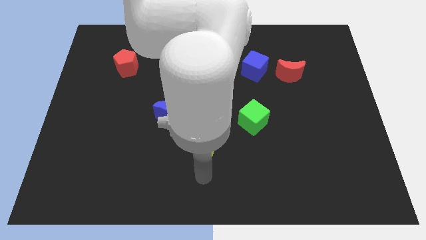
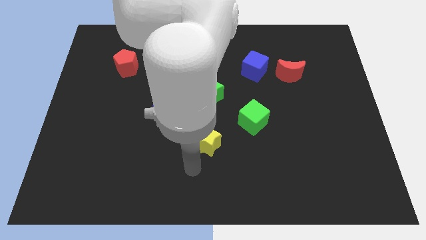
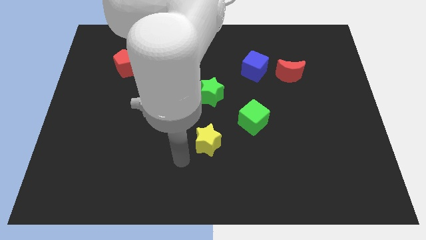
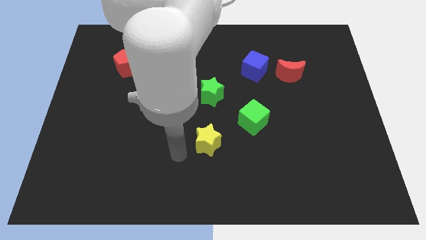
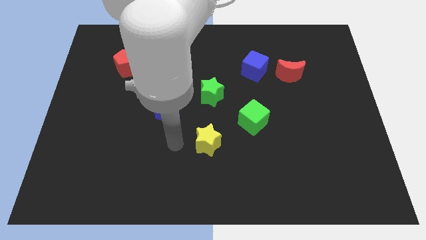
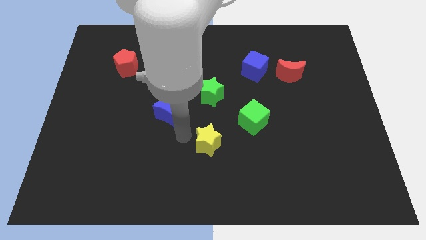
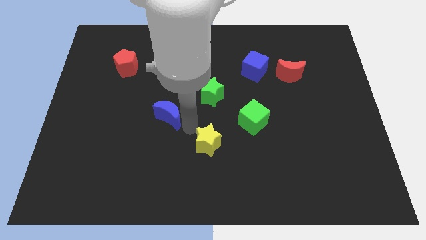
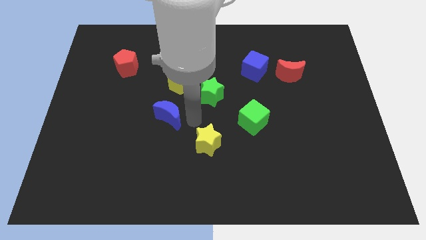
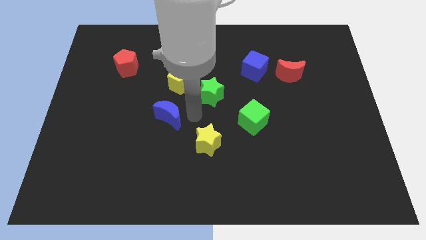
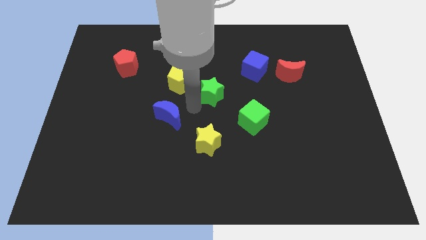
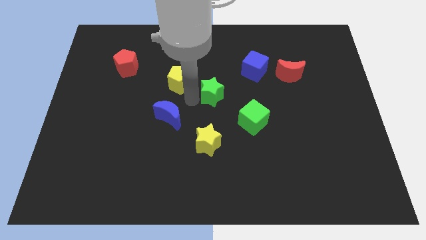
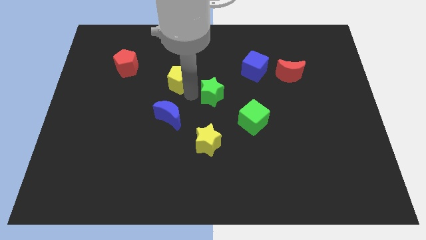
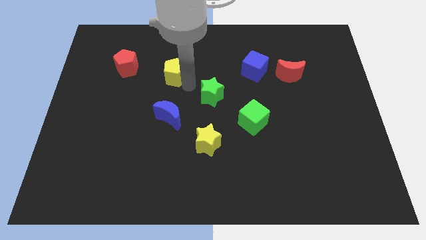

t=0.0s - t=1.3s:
separate the green star from the yellow pentagon

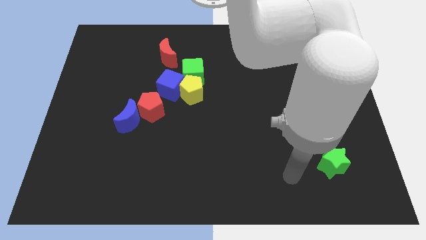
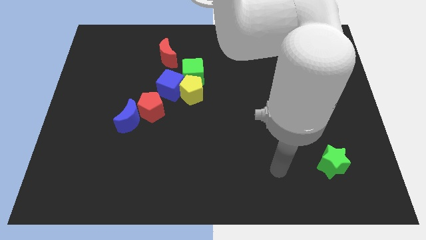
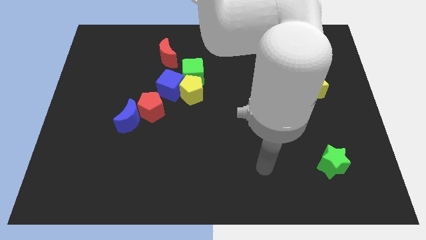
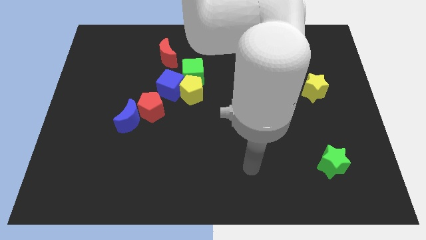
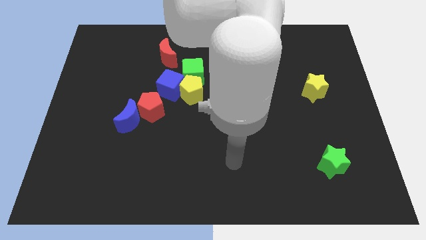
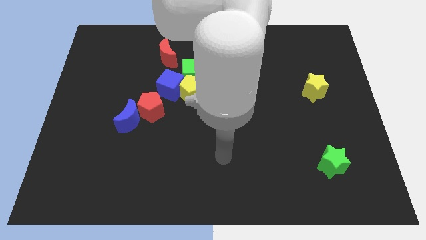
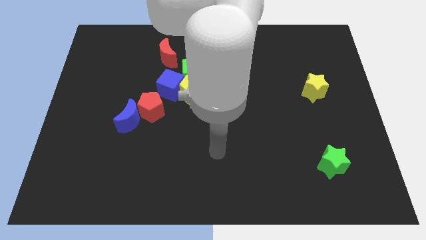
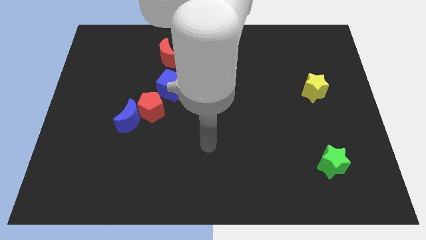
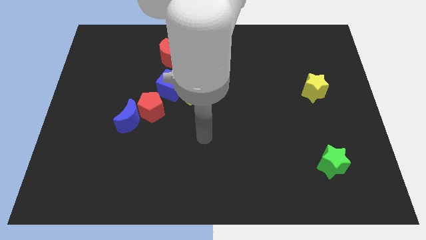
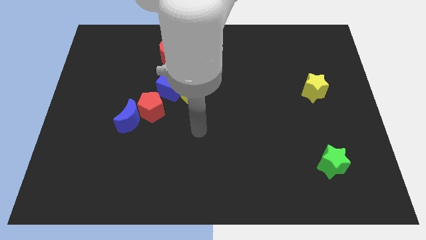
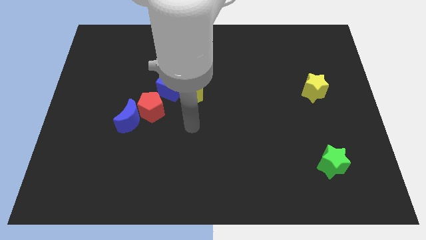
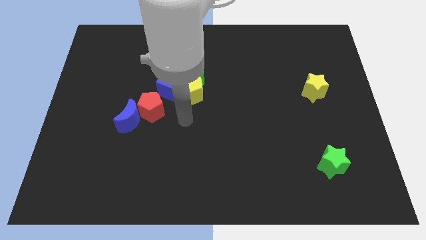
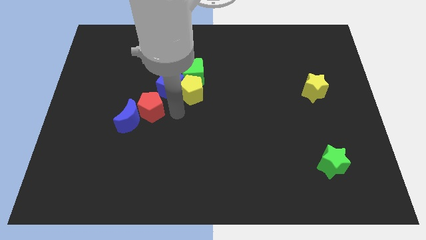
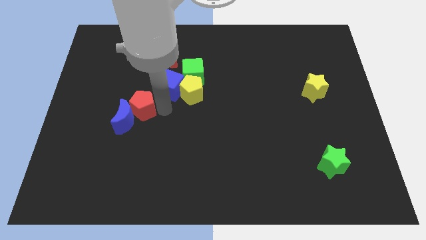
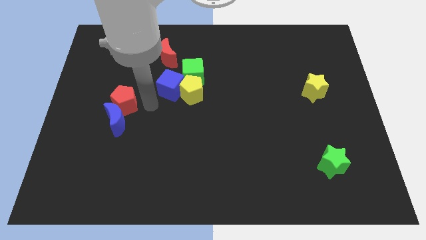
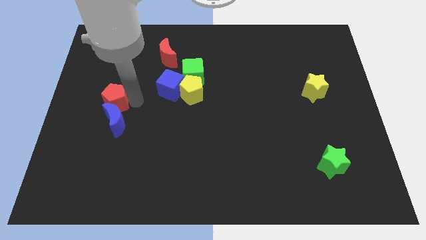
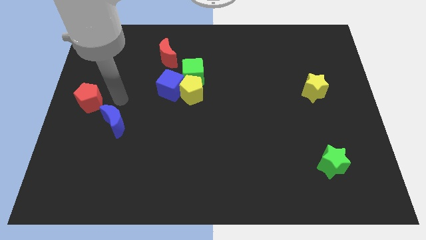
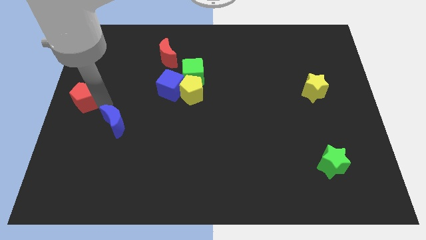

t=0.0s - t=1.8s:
move the blue moon away from the red pentagon

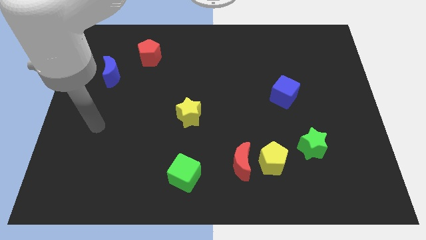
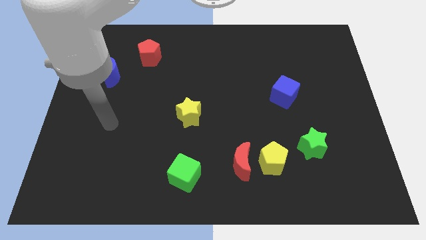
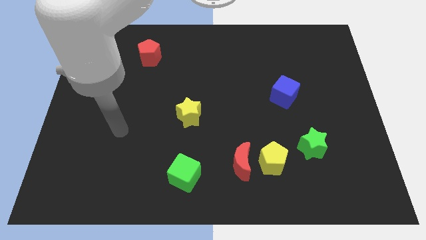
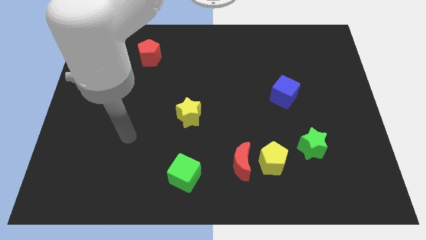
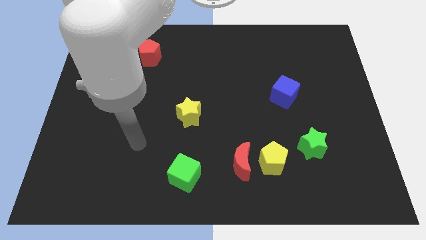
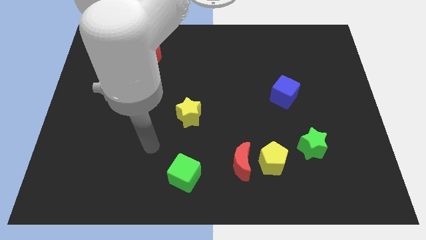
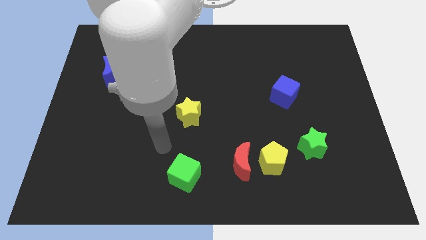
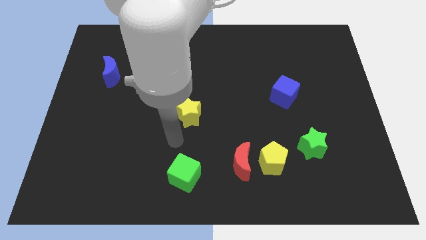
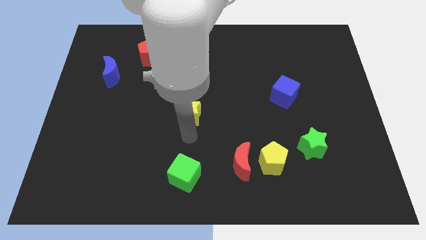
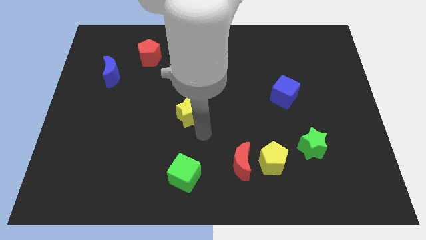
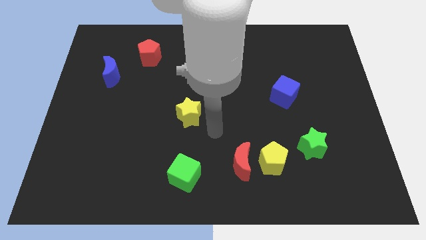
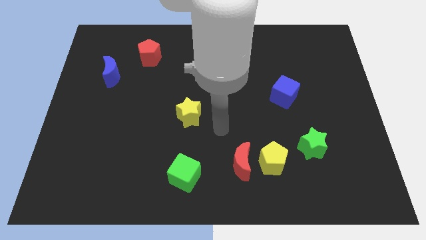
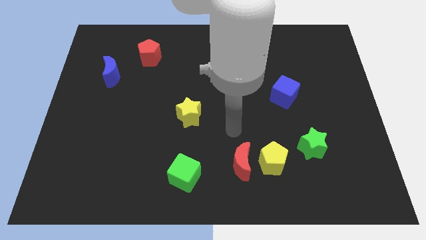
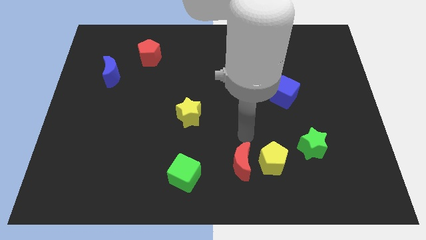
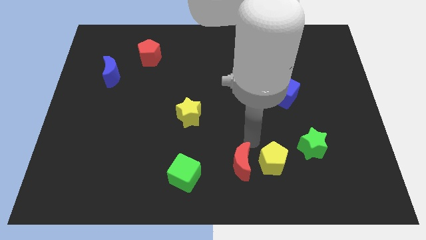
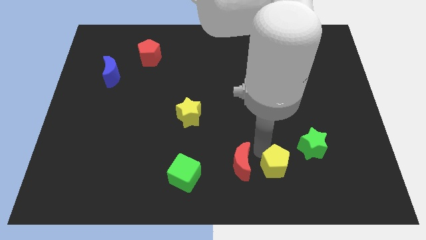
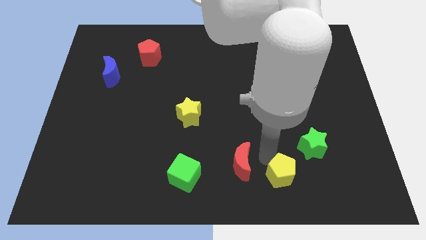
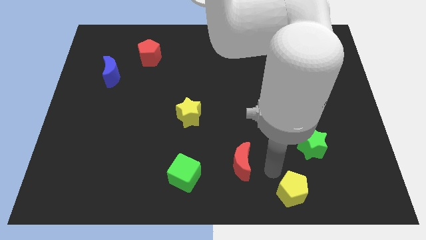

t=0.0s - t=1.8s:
pull the red moon apart from the yellow pentagon

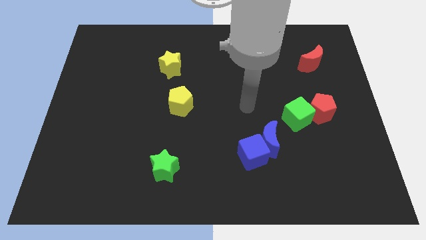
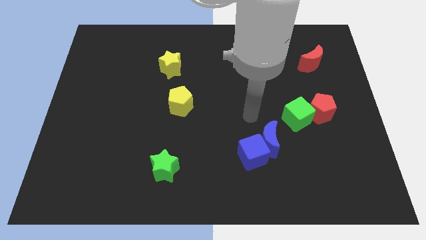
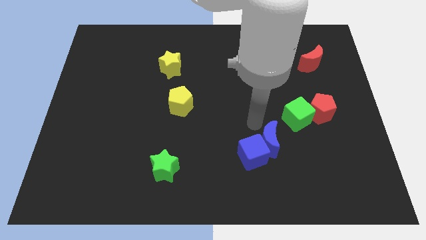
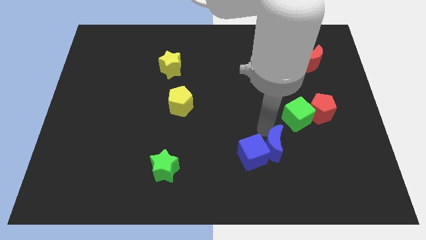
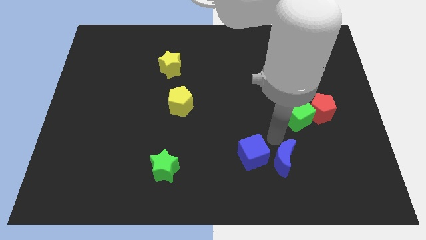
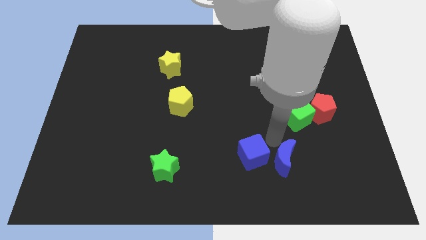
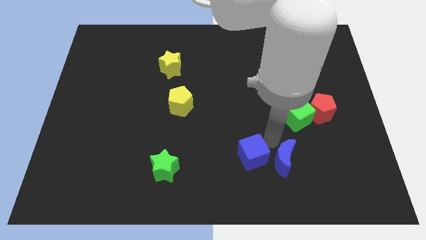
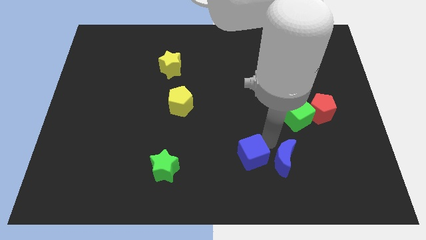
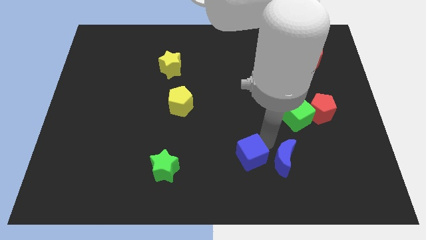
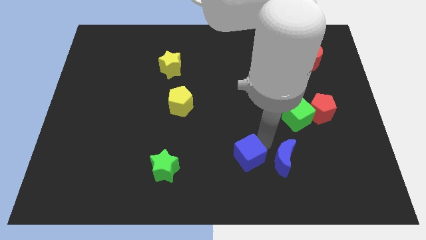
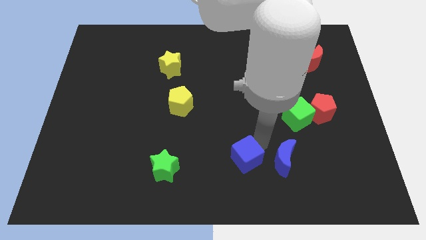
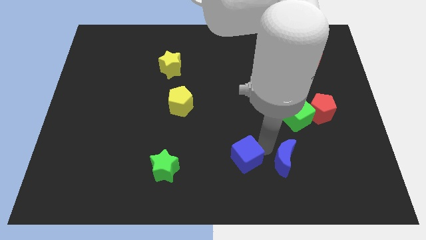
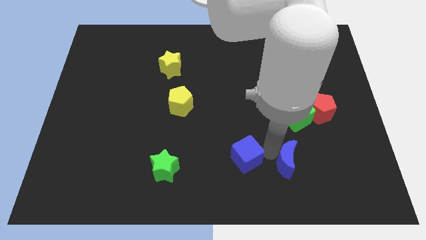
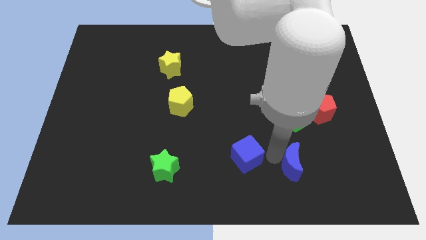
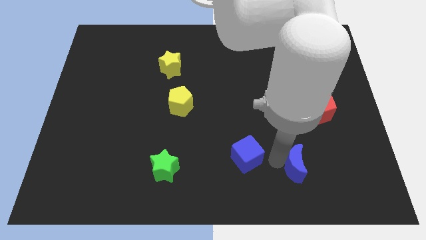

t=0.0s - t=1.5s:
separate the blue cube from the blue moon

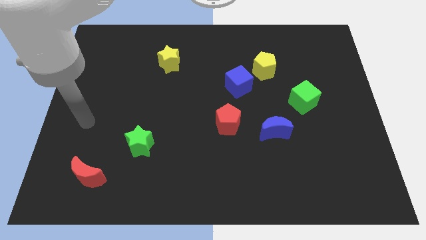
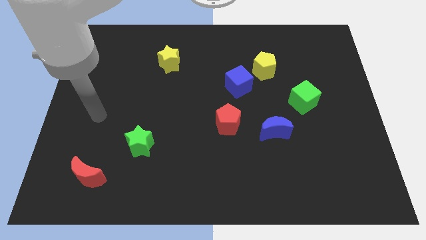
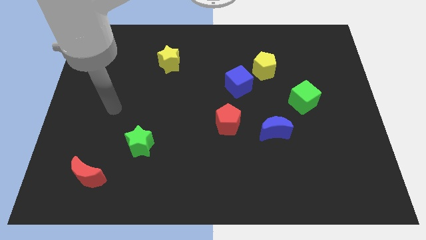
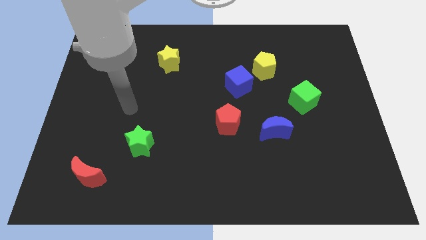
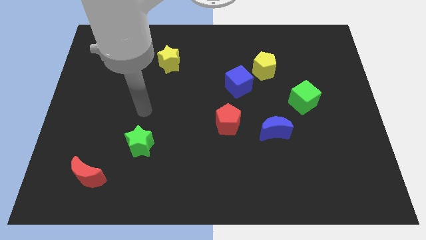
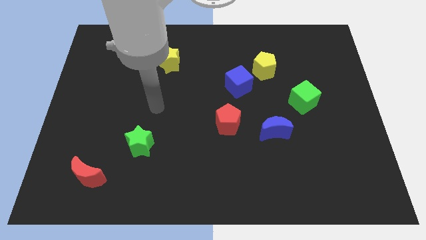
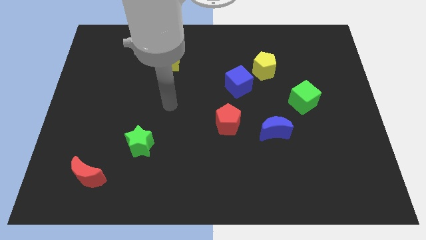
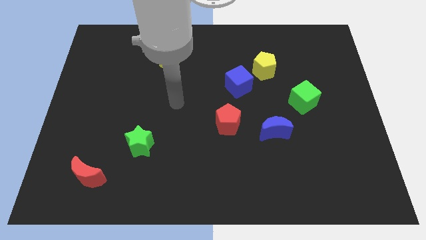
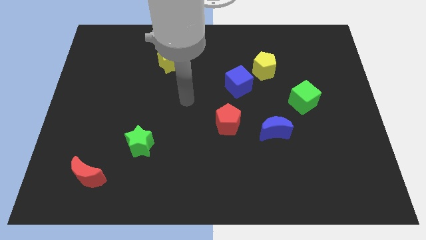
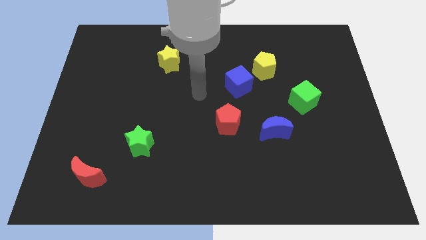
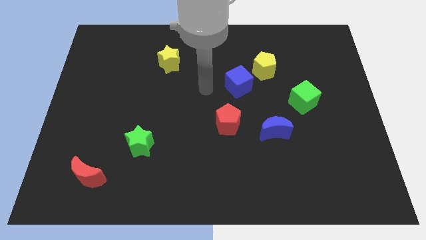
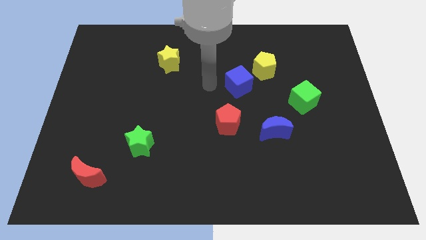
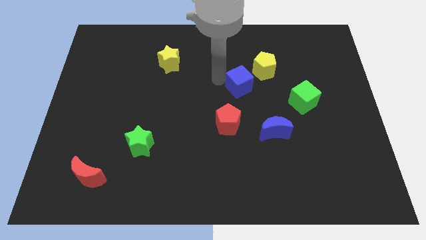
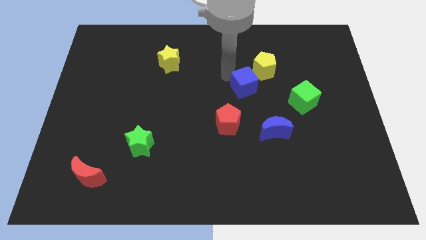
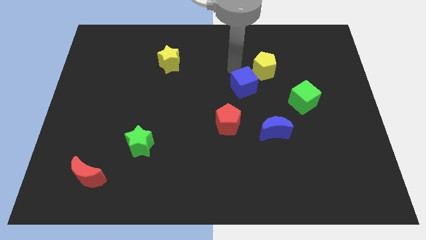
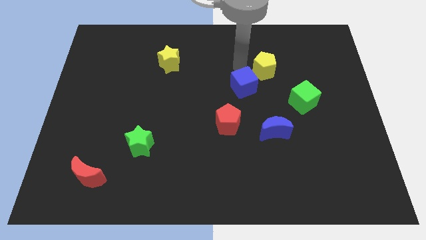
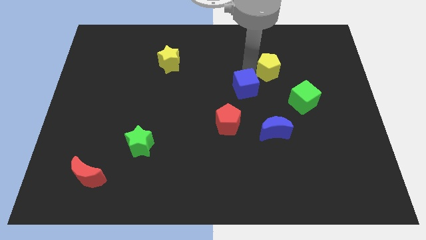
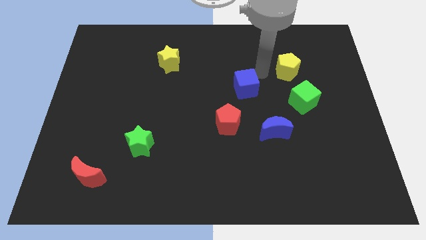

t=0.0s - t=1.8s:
pull the blue cube apart from the yellow pentagon

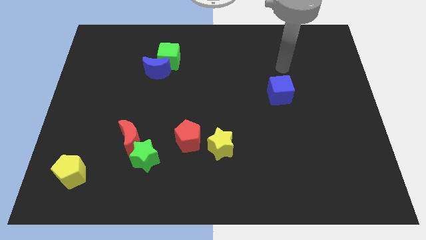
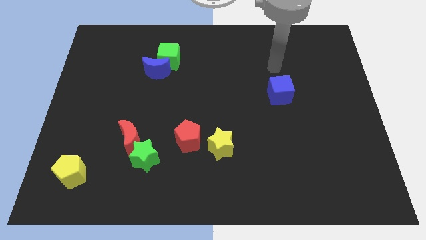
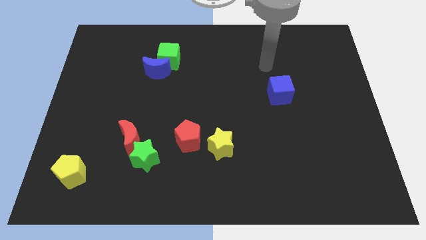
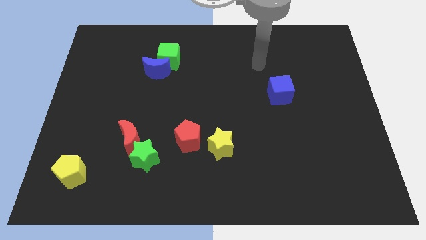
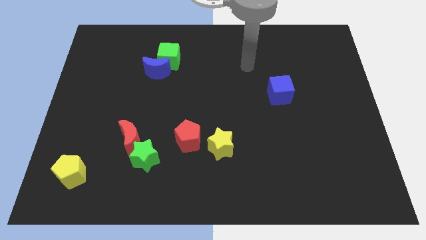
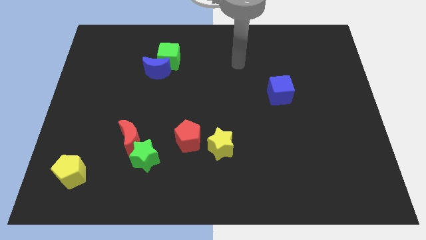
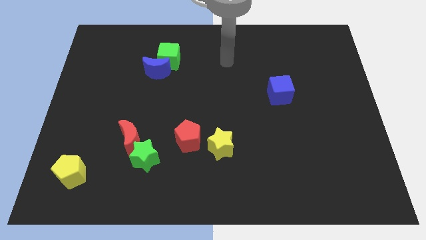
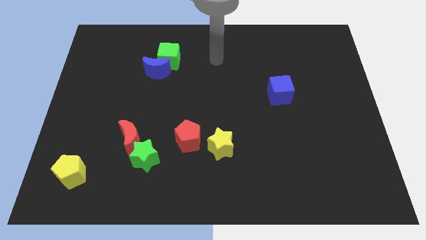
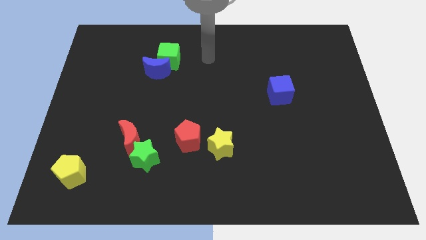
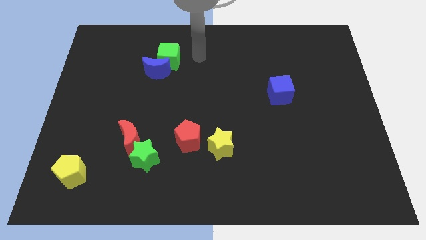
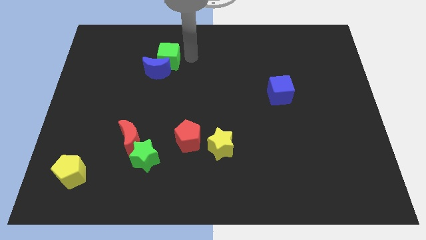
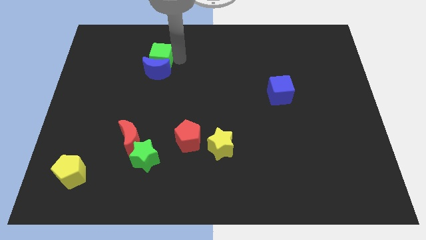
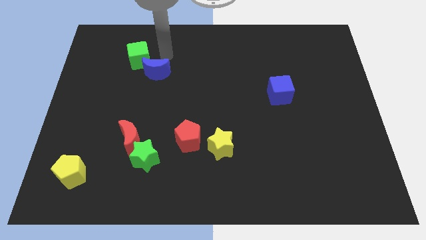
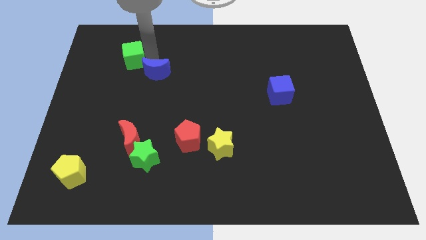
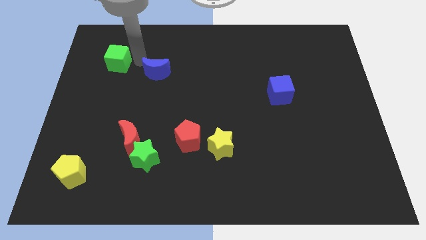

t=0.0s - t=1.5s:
move the blue moon away from the green cube
